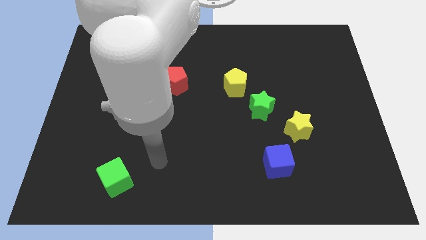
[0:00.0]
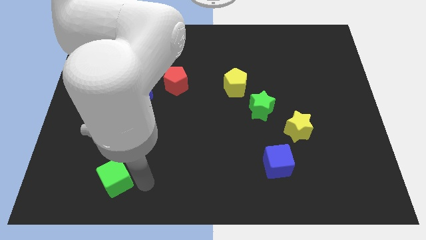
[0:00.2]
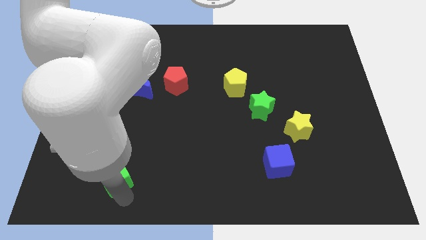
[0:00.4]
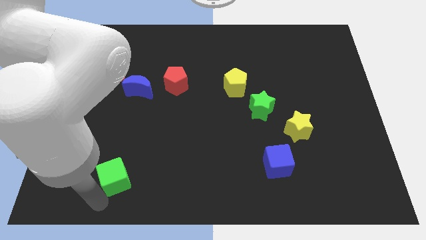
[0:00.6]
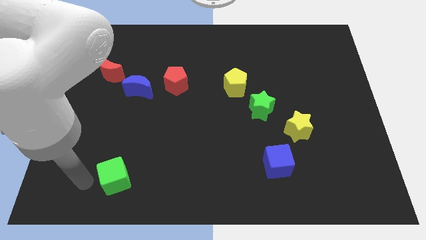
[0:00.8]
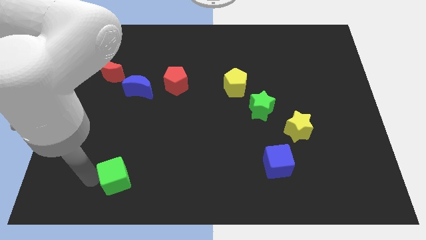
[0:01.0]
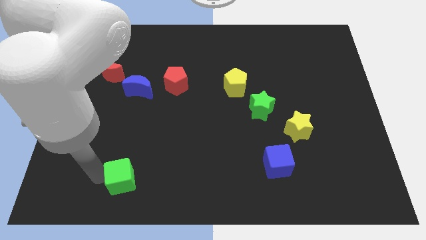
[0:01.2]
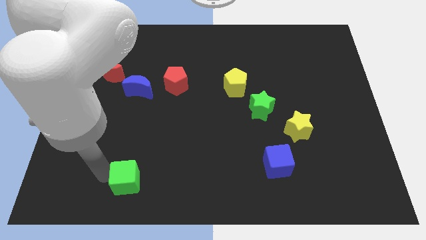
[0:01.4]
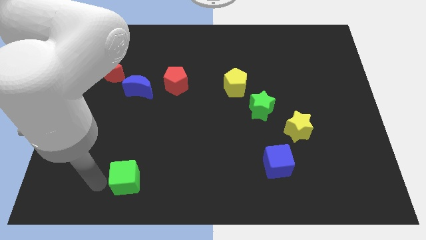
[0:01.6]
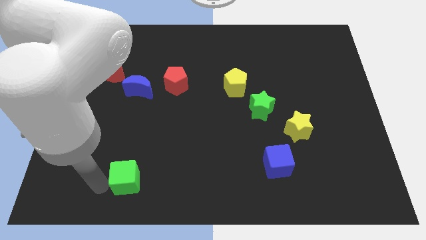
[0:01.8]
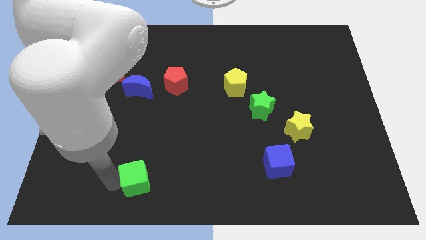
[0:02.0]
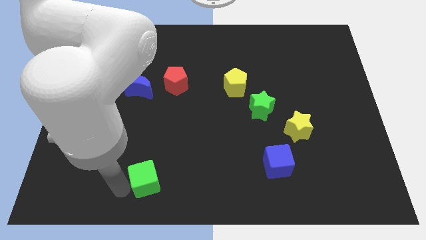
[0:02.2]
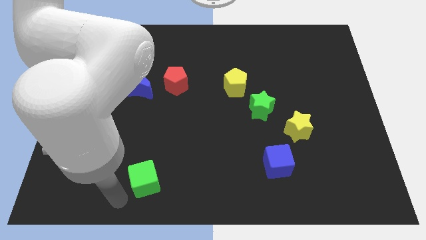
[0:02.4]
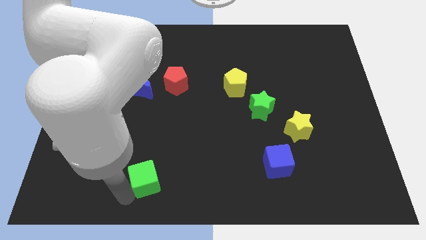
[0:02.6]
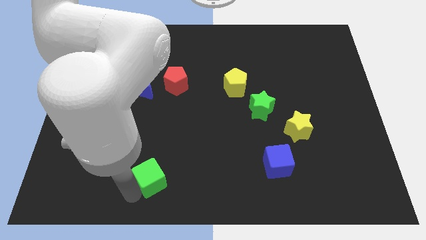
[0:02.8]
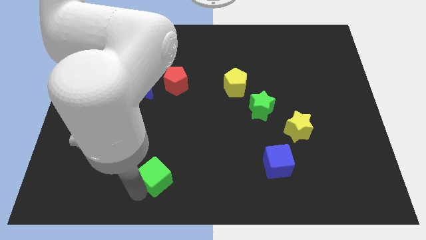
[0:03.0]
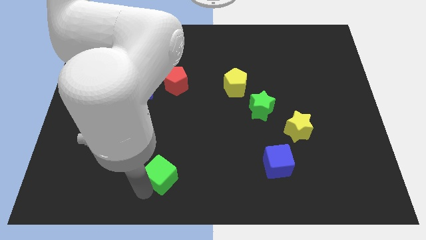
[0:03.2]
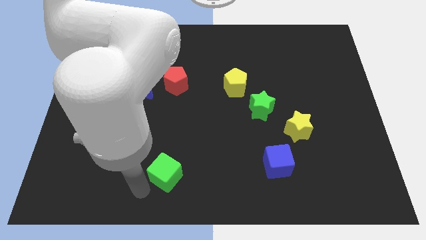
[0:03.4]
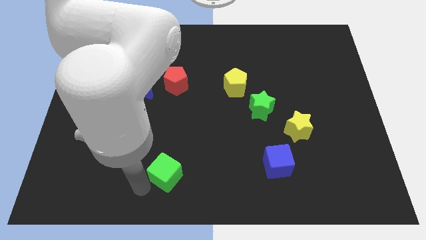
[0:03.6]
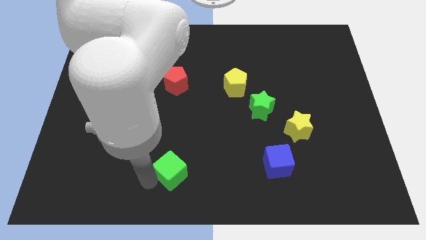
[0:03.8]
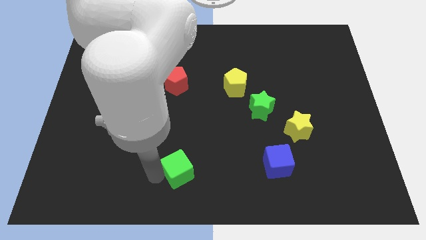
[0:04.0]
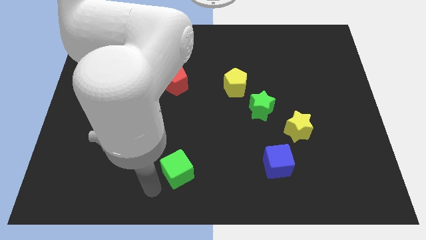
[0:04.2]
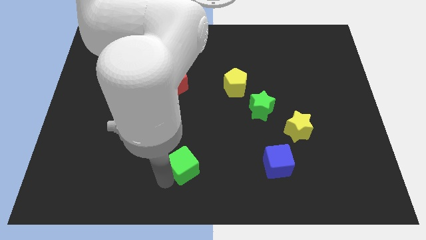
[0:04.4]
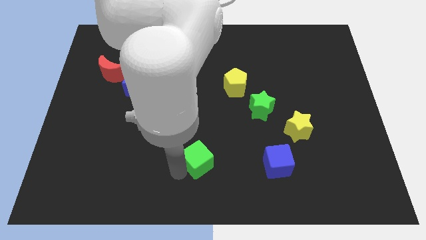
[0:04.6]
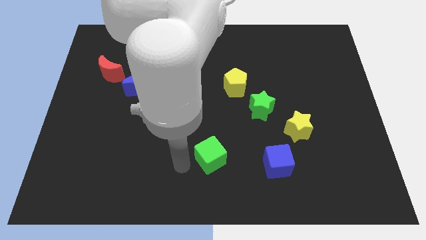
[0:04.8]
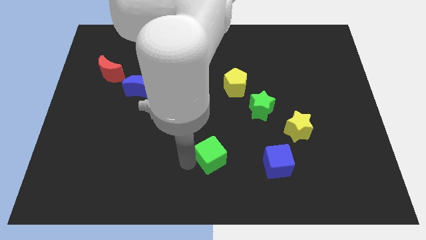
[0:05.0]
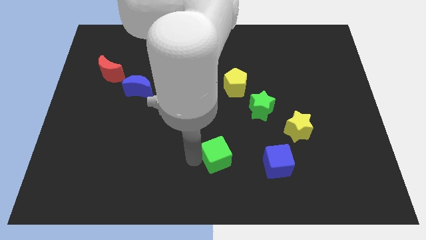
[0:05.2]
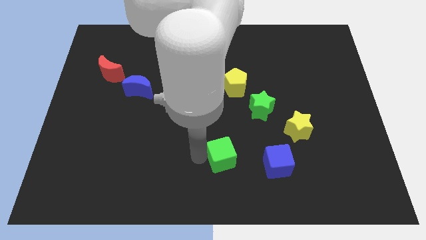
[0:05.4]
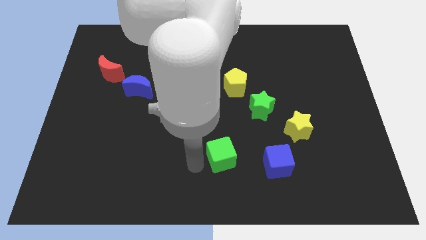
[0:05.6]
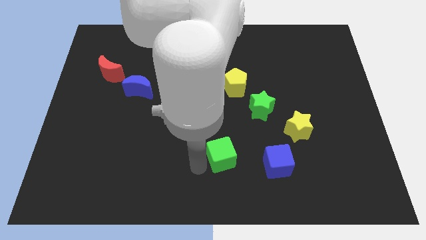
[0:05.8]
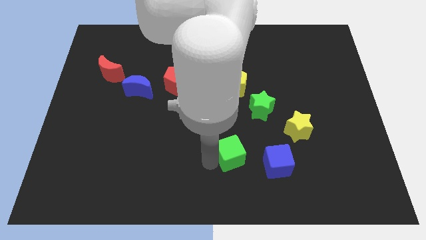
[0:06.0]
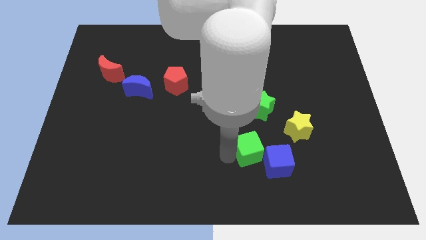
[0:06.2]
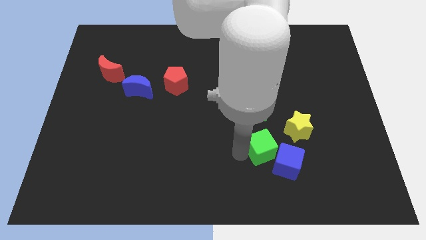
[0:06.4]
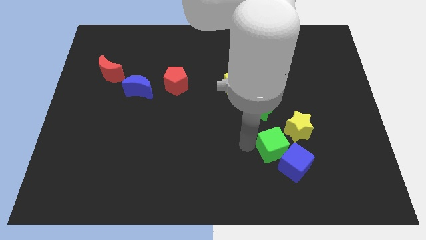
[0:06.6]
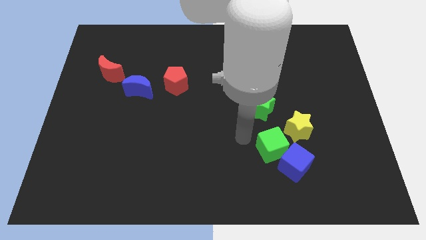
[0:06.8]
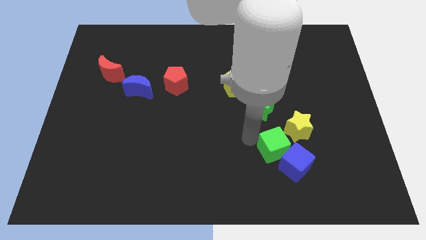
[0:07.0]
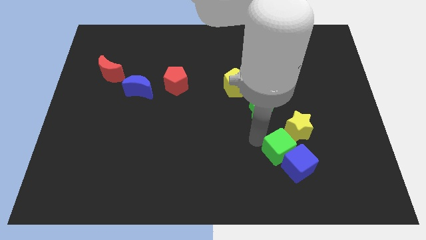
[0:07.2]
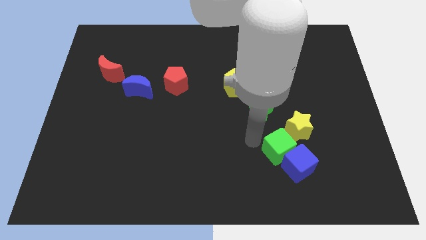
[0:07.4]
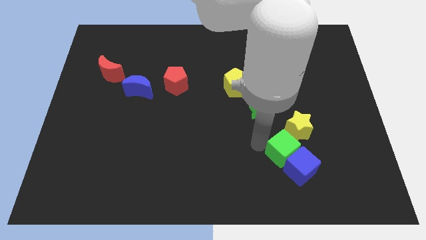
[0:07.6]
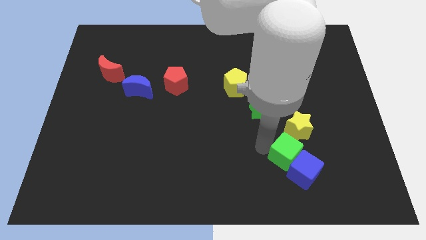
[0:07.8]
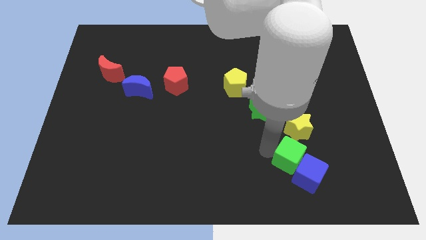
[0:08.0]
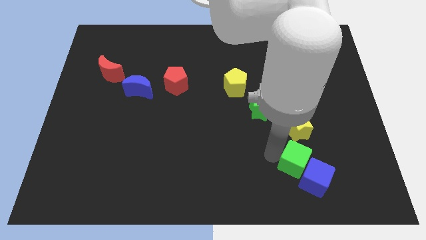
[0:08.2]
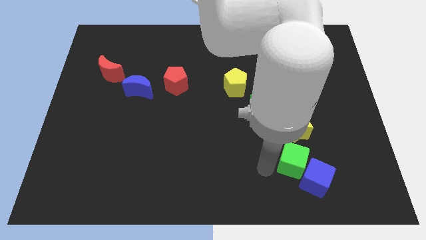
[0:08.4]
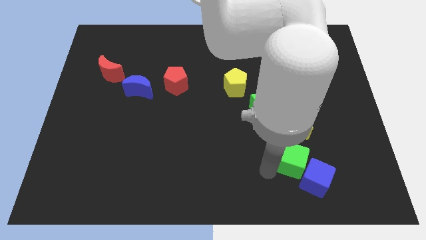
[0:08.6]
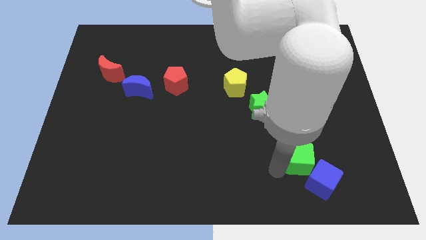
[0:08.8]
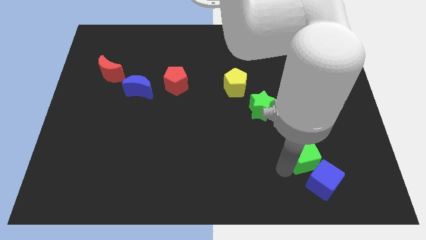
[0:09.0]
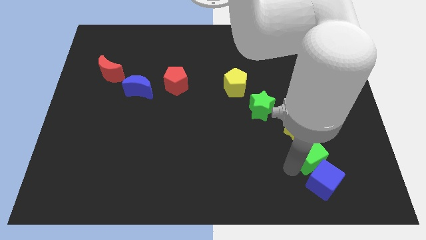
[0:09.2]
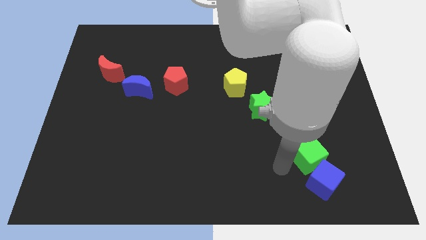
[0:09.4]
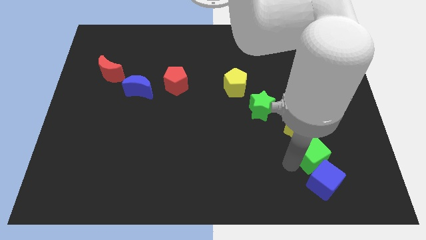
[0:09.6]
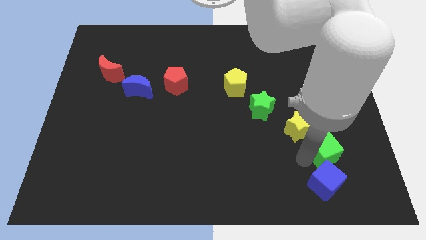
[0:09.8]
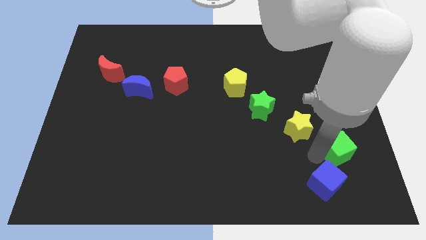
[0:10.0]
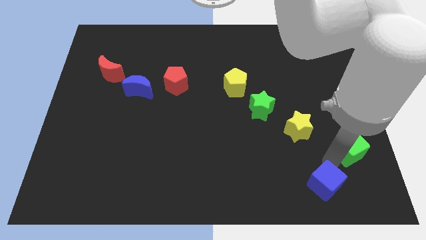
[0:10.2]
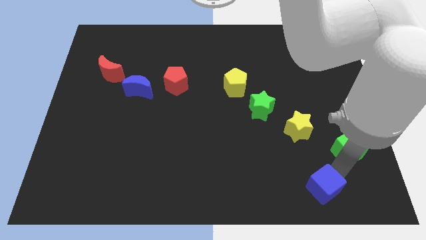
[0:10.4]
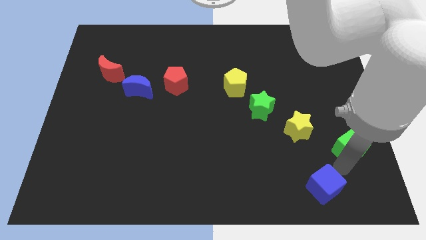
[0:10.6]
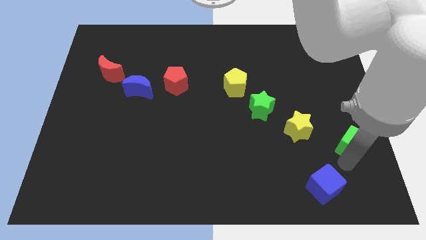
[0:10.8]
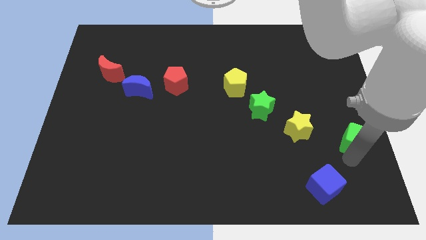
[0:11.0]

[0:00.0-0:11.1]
move the green cube to the right side of the board

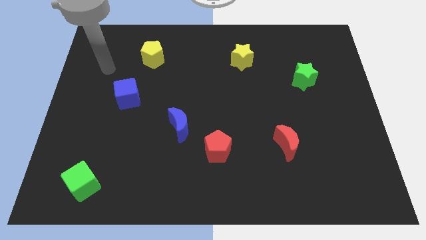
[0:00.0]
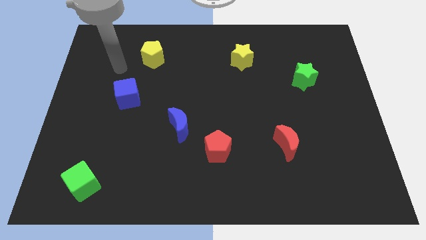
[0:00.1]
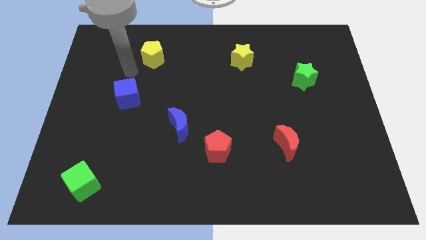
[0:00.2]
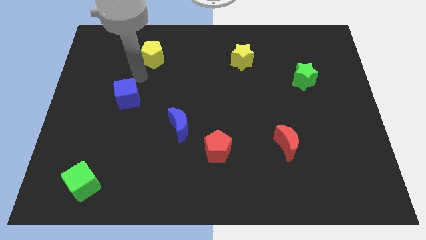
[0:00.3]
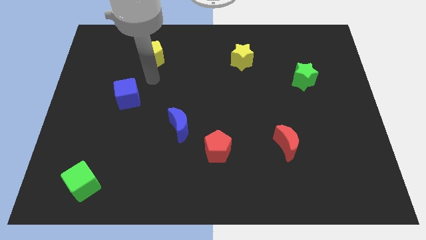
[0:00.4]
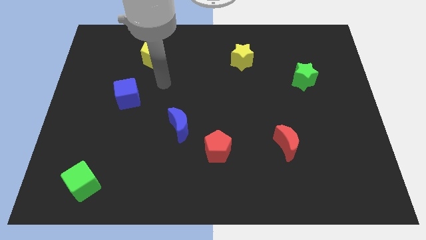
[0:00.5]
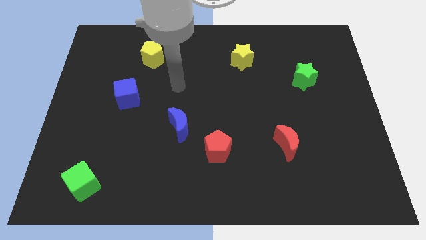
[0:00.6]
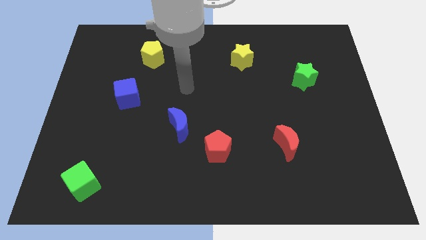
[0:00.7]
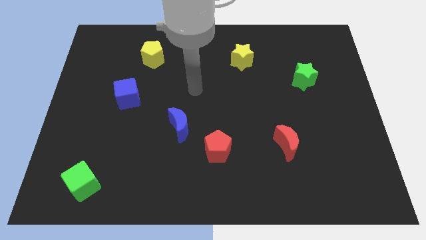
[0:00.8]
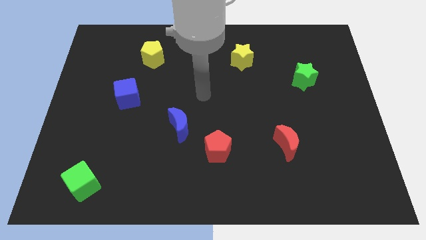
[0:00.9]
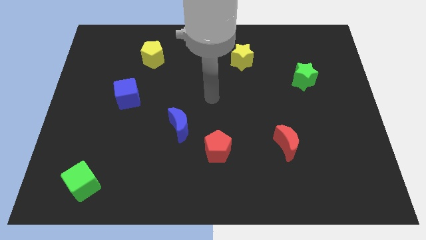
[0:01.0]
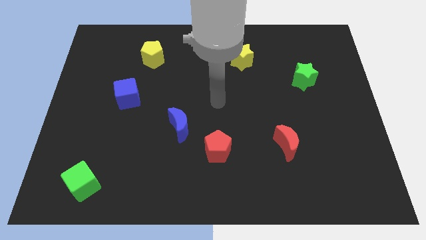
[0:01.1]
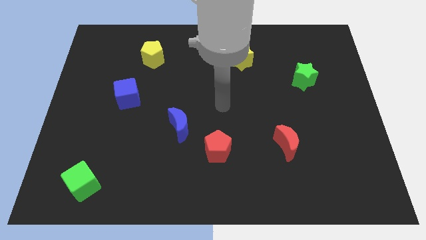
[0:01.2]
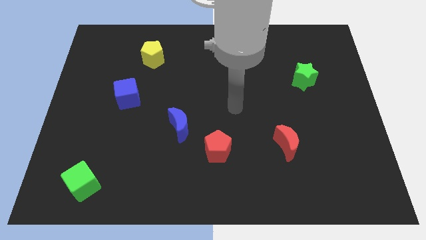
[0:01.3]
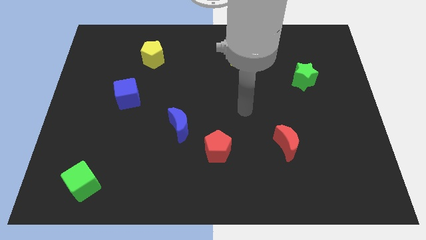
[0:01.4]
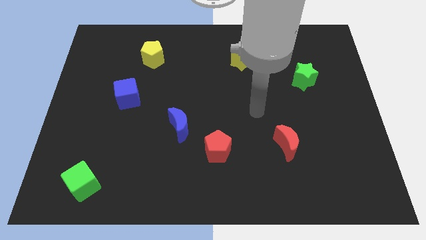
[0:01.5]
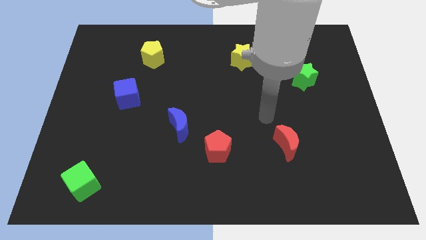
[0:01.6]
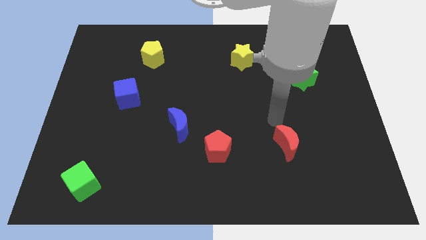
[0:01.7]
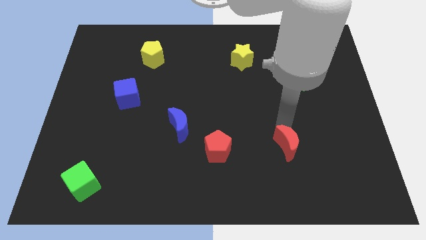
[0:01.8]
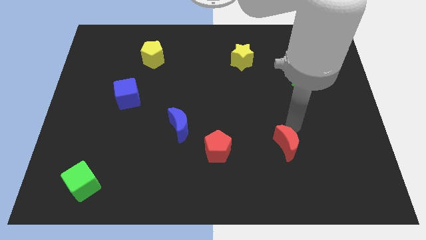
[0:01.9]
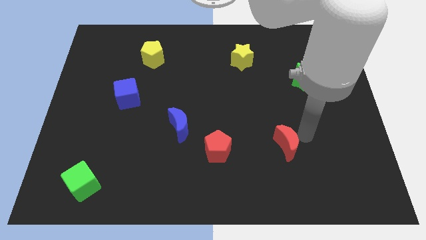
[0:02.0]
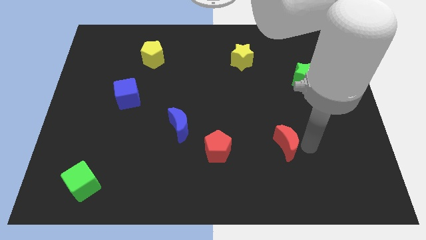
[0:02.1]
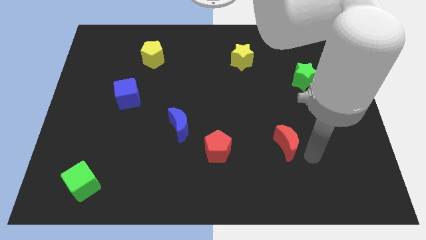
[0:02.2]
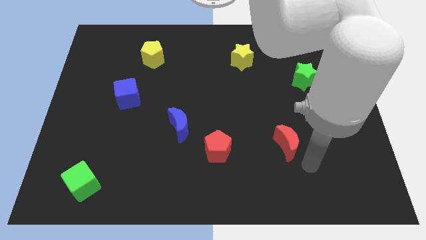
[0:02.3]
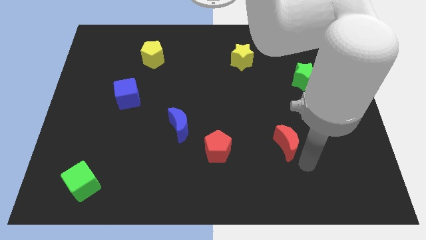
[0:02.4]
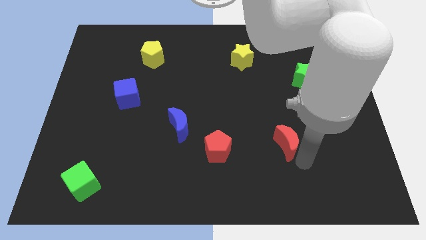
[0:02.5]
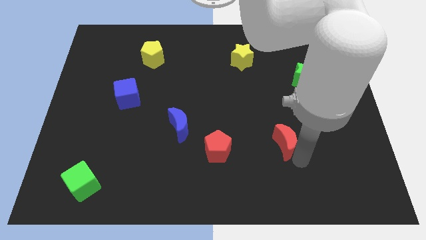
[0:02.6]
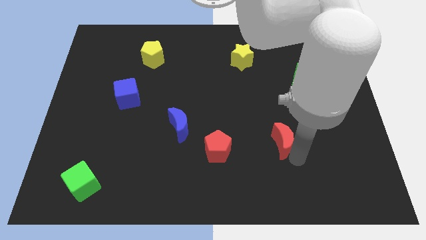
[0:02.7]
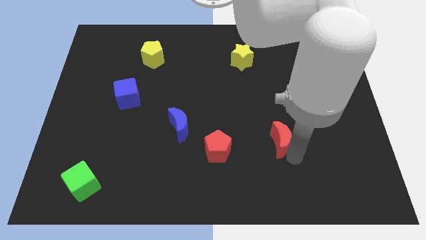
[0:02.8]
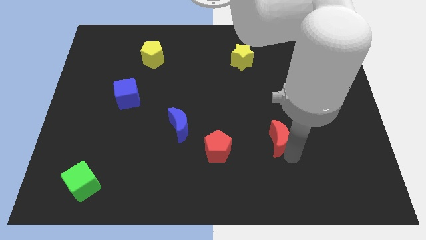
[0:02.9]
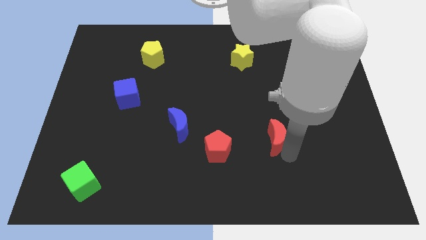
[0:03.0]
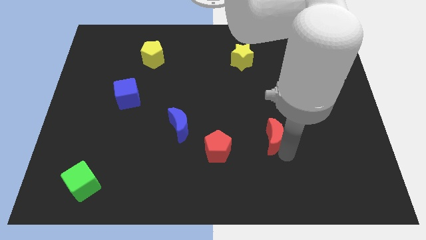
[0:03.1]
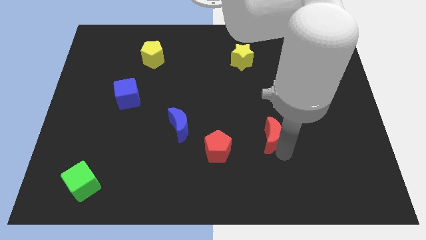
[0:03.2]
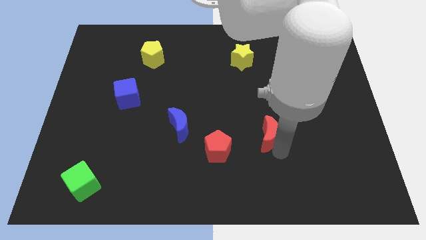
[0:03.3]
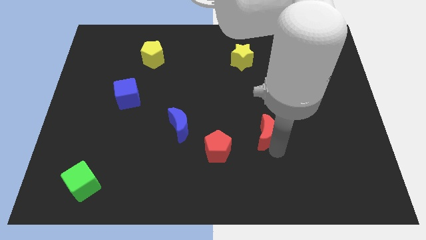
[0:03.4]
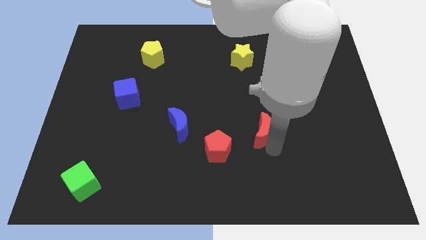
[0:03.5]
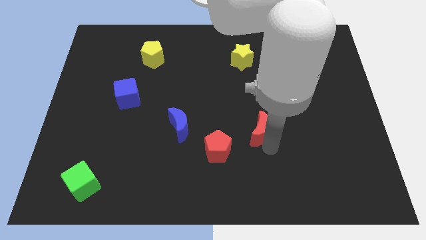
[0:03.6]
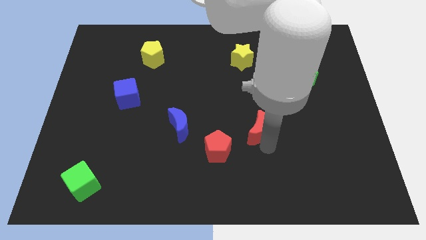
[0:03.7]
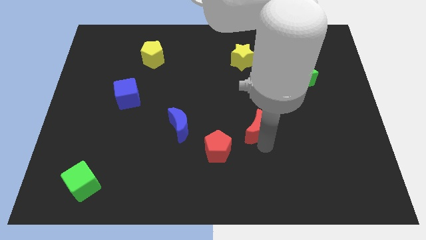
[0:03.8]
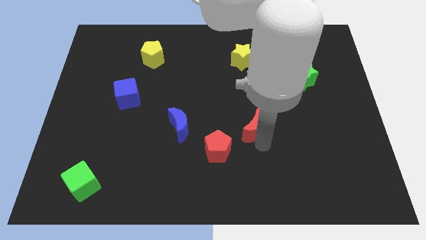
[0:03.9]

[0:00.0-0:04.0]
slide the red moon to the center of the board
